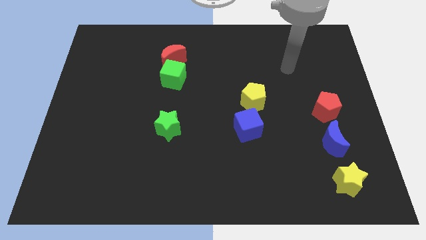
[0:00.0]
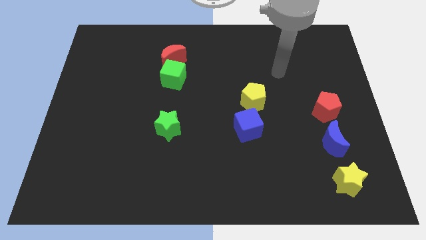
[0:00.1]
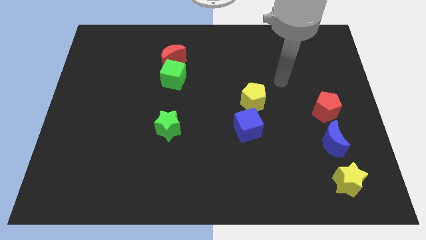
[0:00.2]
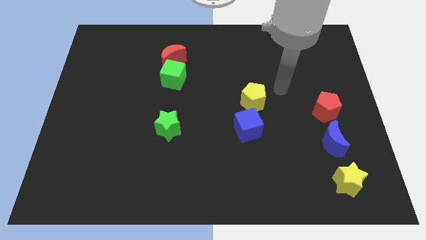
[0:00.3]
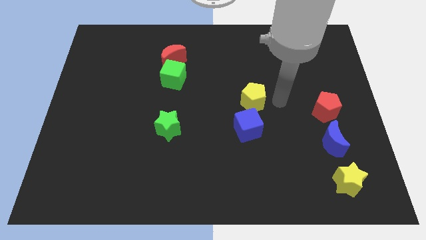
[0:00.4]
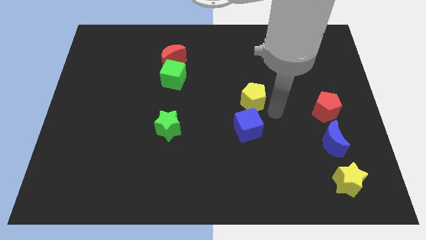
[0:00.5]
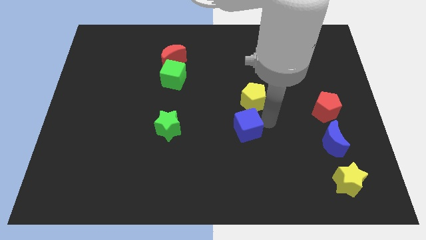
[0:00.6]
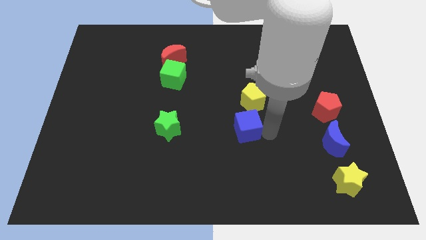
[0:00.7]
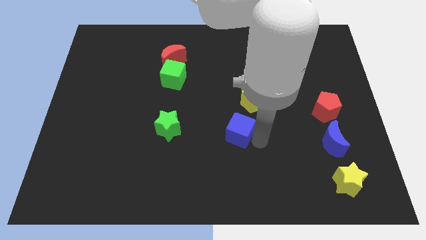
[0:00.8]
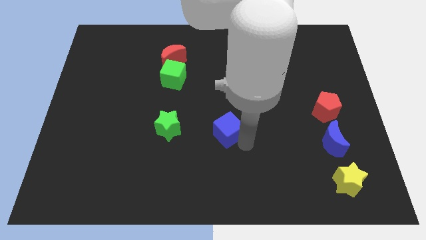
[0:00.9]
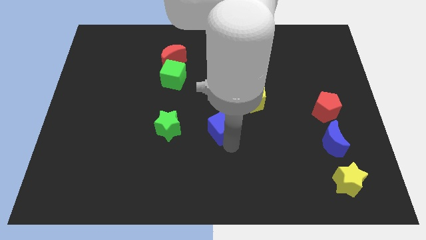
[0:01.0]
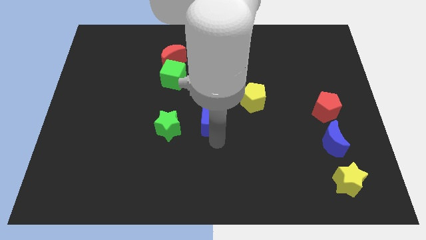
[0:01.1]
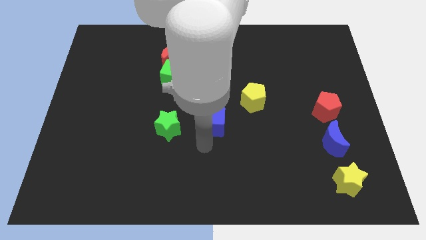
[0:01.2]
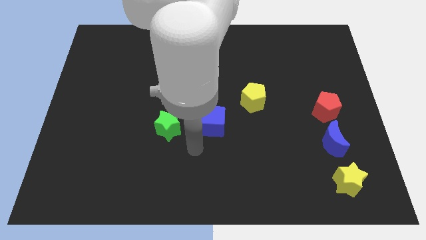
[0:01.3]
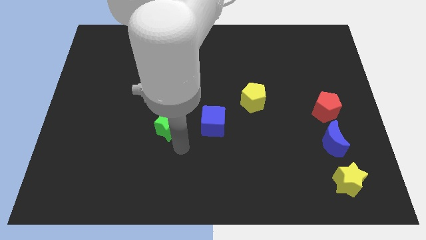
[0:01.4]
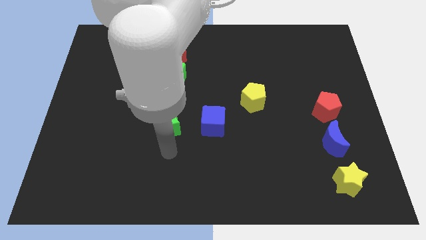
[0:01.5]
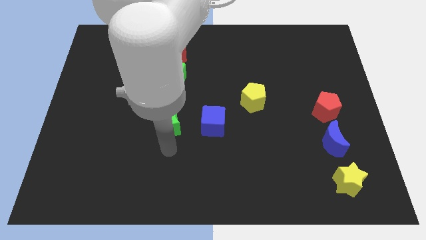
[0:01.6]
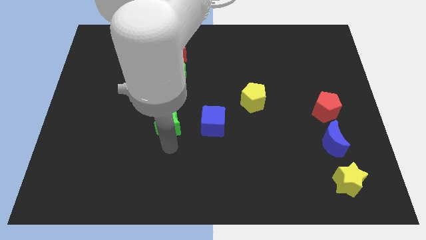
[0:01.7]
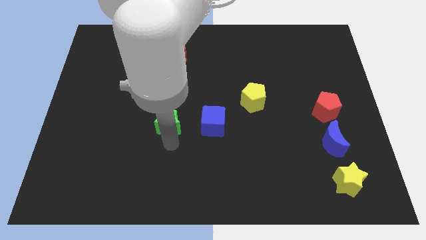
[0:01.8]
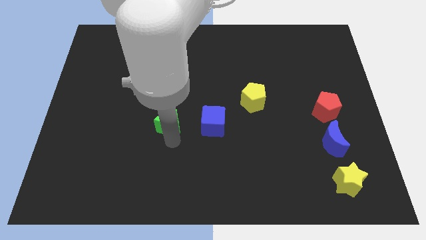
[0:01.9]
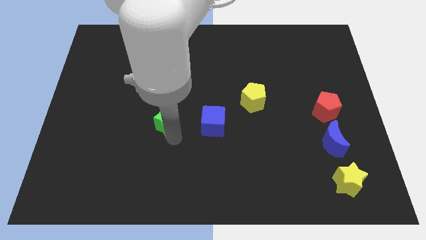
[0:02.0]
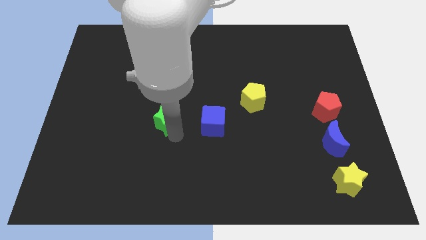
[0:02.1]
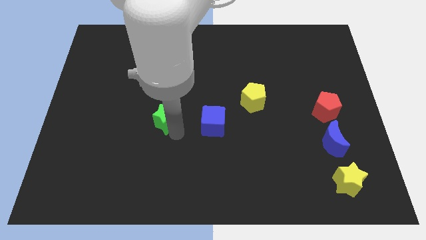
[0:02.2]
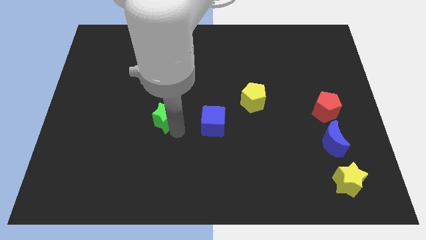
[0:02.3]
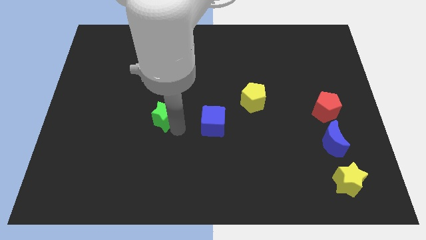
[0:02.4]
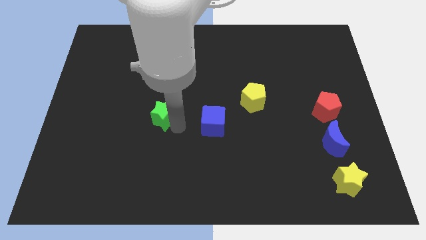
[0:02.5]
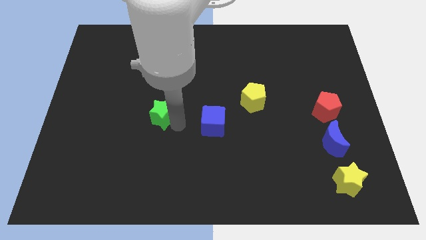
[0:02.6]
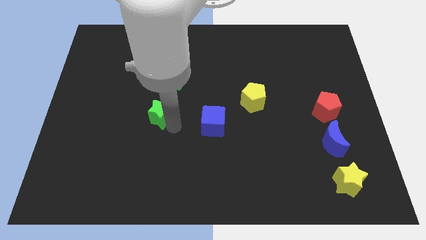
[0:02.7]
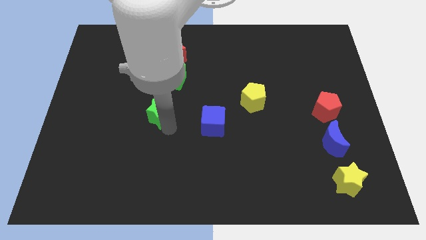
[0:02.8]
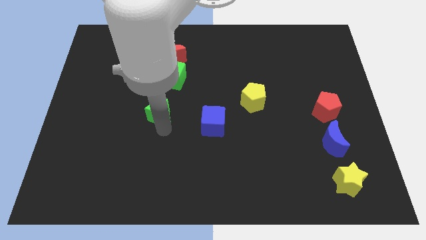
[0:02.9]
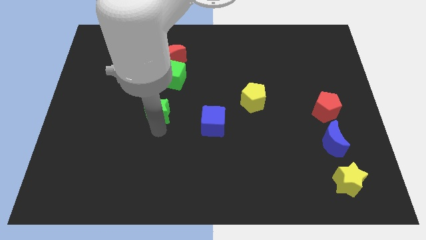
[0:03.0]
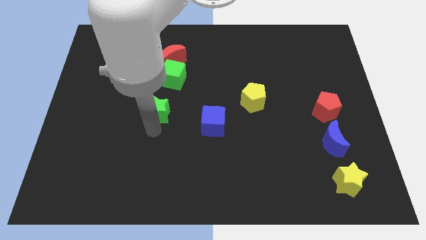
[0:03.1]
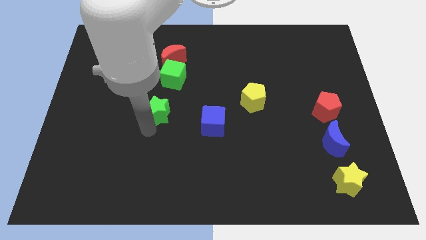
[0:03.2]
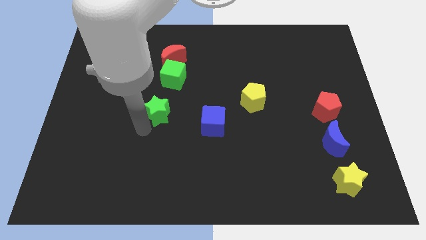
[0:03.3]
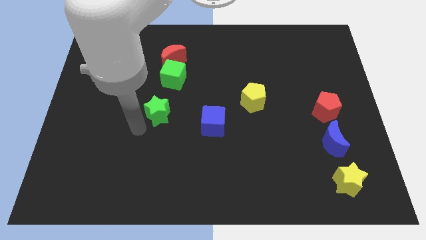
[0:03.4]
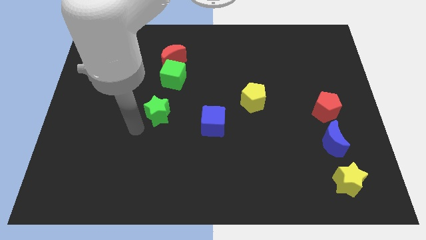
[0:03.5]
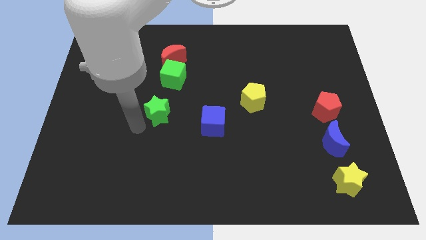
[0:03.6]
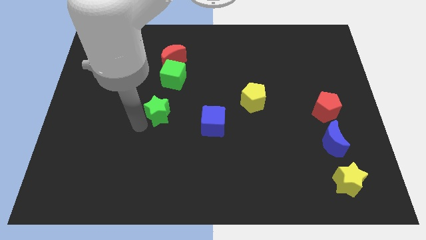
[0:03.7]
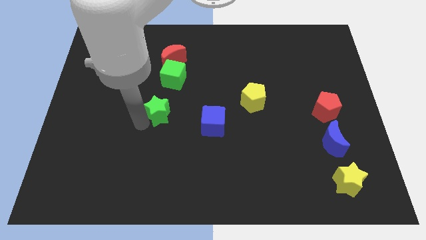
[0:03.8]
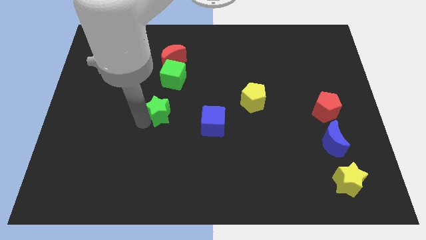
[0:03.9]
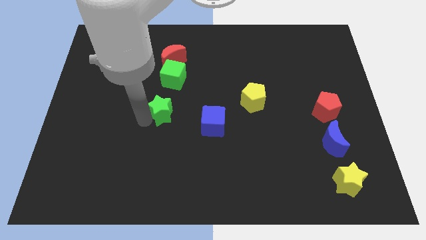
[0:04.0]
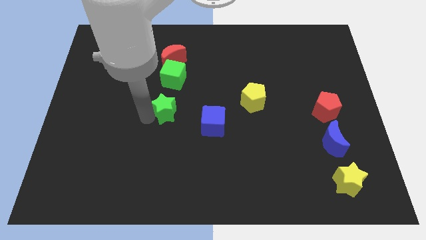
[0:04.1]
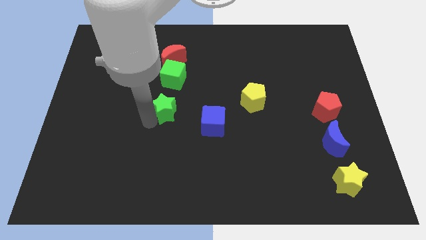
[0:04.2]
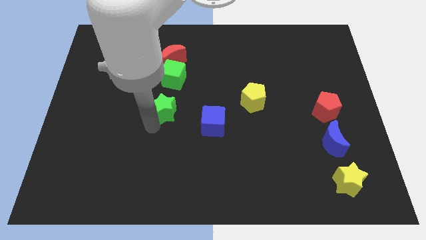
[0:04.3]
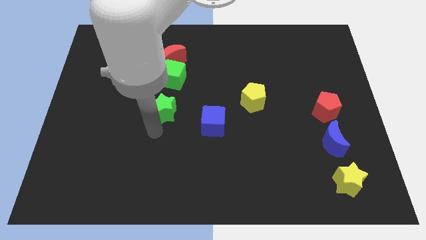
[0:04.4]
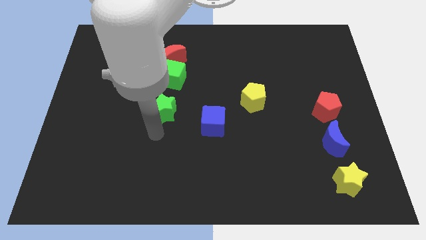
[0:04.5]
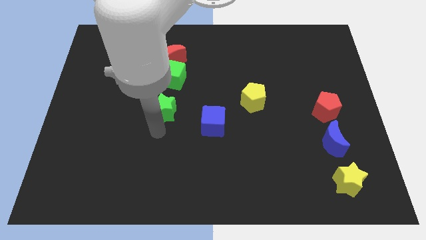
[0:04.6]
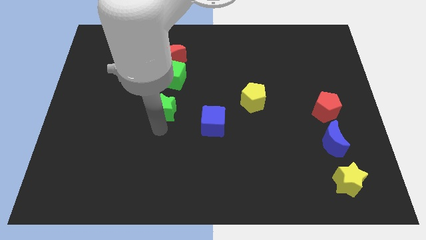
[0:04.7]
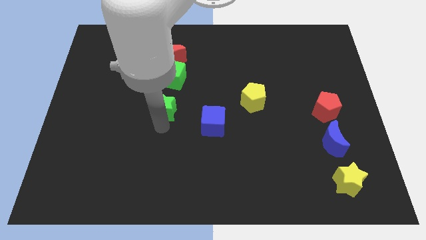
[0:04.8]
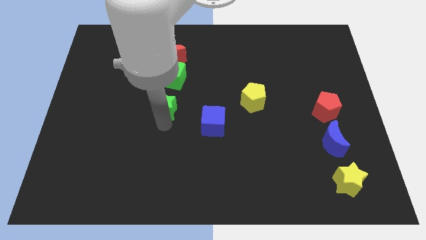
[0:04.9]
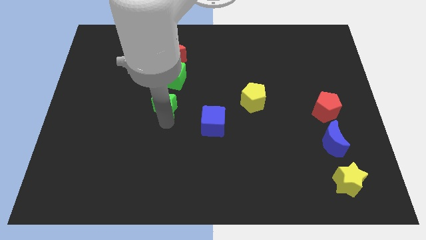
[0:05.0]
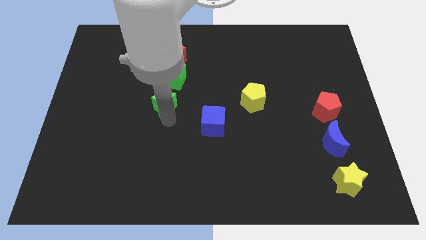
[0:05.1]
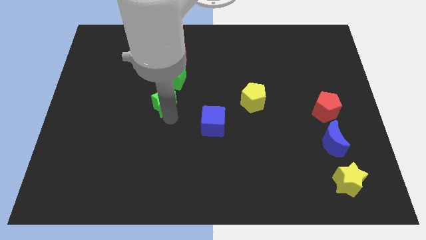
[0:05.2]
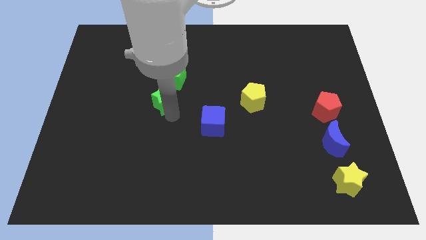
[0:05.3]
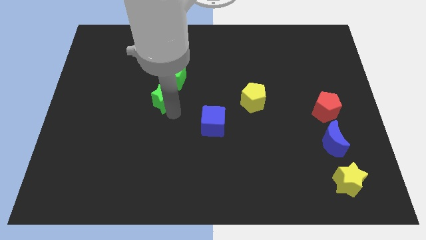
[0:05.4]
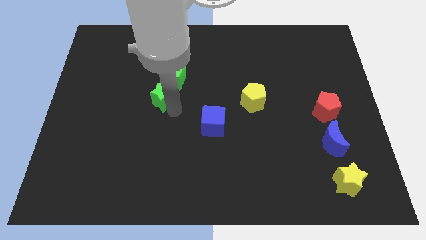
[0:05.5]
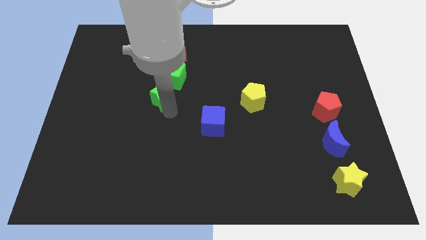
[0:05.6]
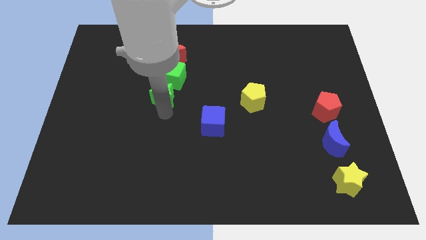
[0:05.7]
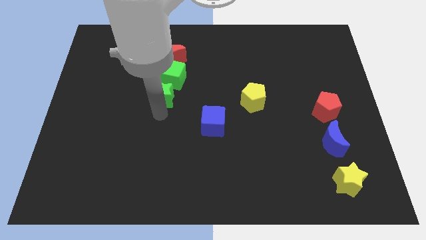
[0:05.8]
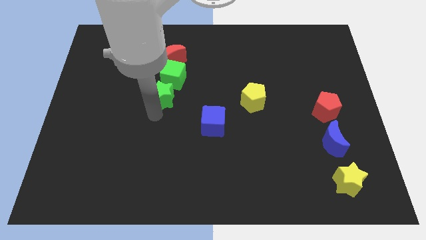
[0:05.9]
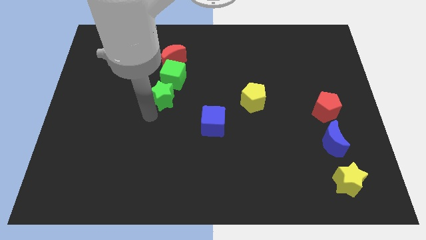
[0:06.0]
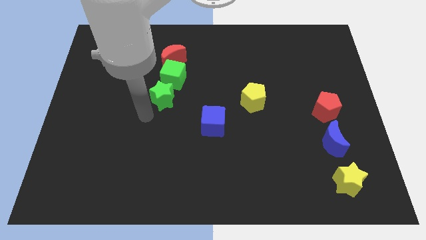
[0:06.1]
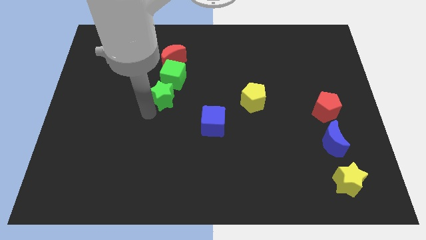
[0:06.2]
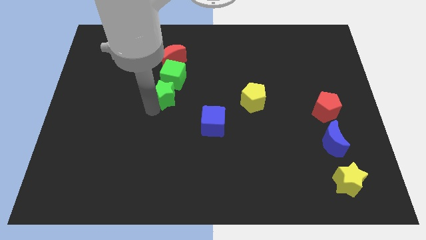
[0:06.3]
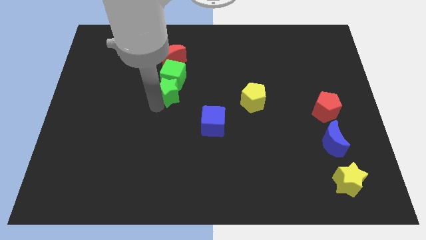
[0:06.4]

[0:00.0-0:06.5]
move the green star close to the green cube

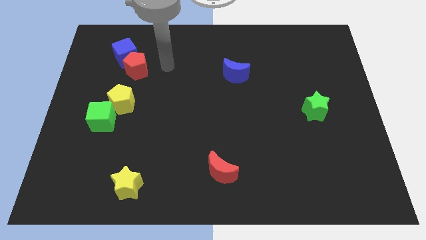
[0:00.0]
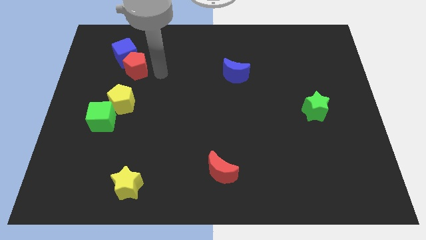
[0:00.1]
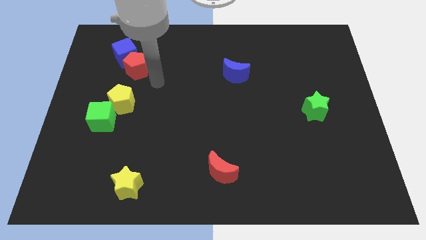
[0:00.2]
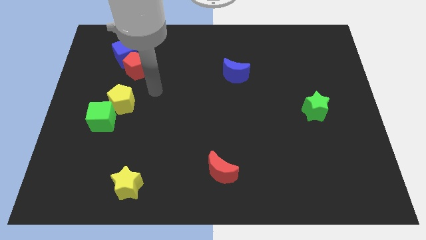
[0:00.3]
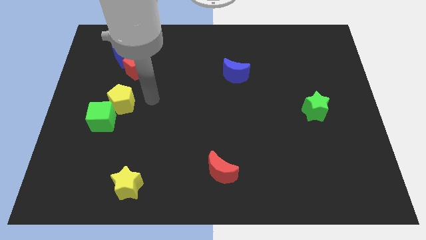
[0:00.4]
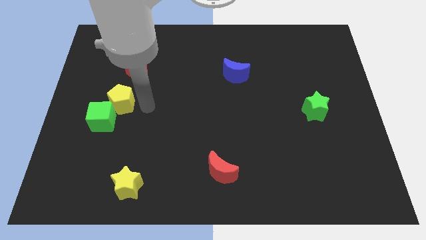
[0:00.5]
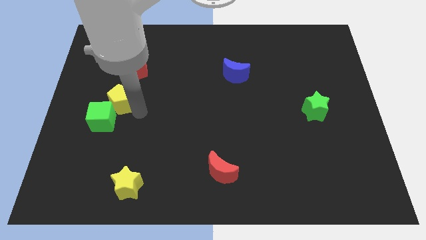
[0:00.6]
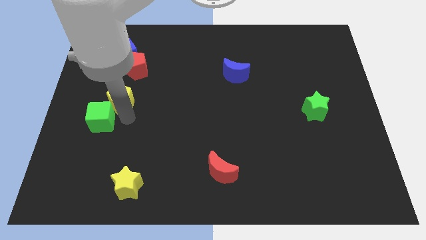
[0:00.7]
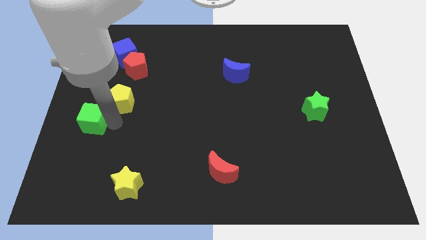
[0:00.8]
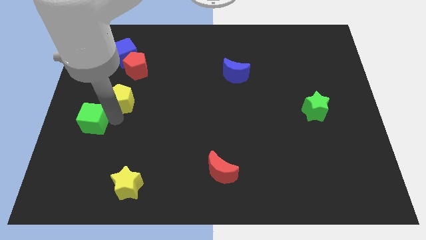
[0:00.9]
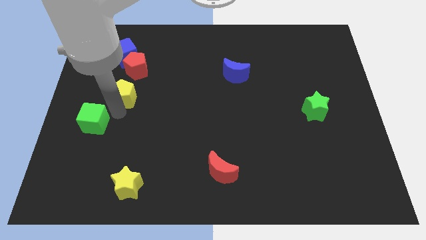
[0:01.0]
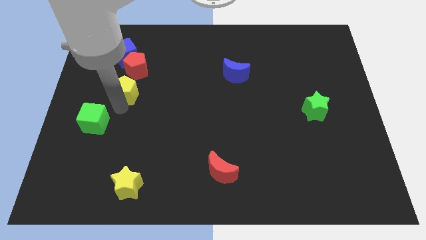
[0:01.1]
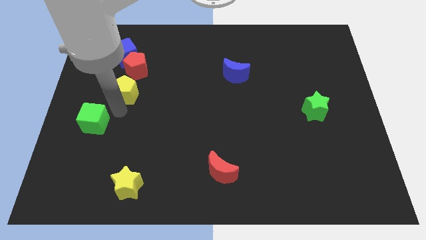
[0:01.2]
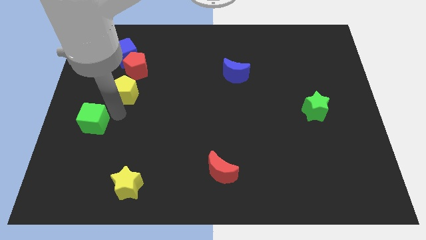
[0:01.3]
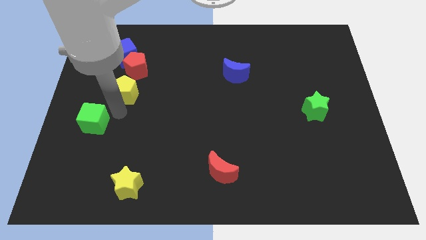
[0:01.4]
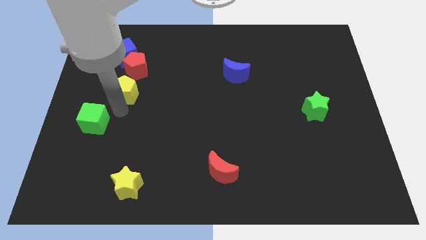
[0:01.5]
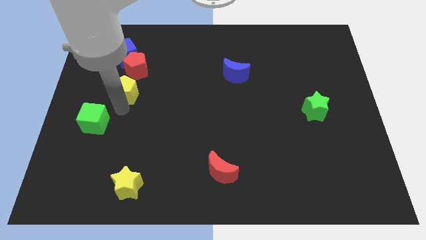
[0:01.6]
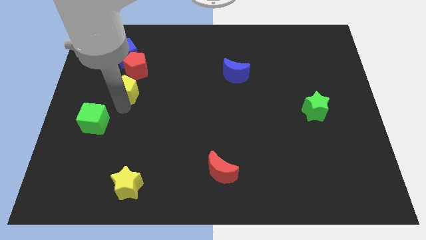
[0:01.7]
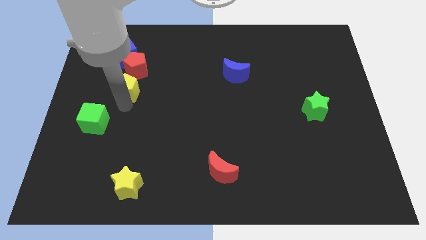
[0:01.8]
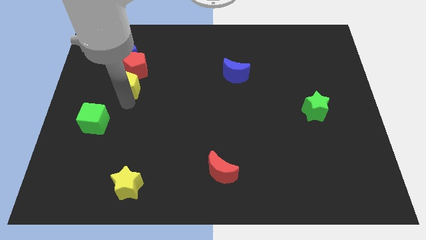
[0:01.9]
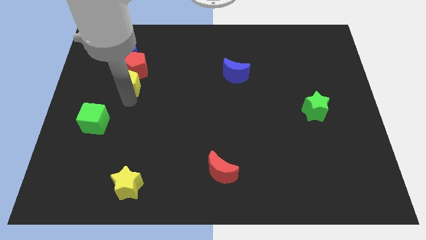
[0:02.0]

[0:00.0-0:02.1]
put the yellow pentagon to the red pentagon
